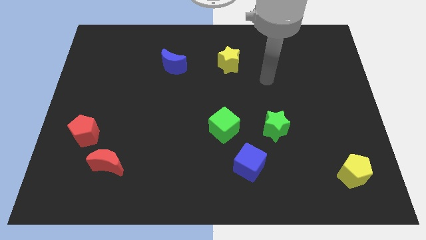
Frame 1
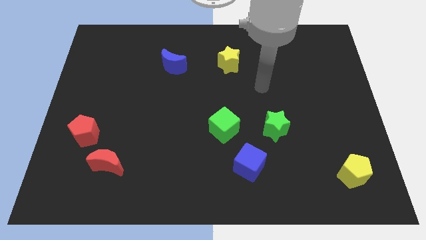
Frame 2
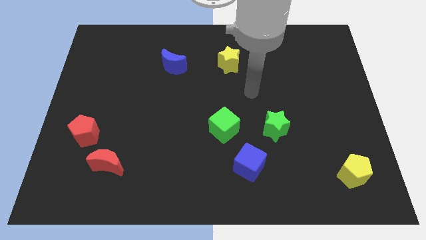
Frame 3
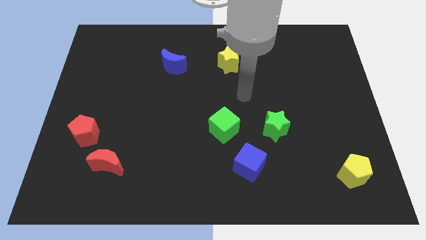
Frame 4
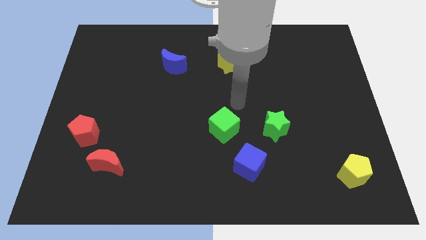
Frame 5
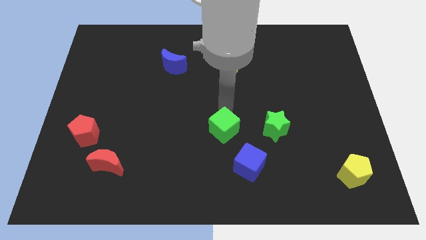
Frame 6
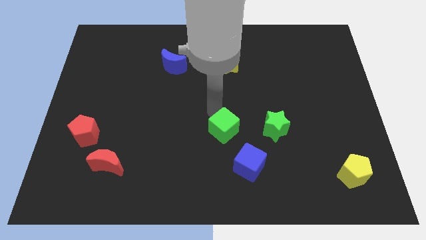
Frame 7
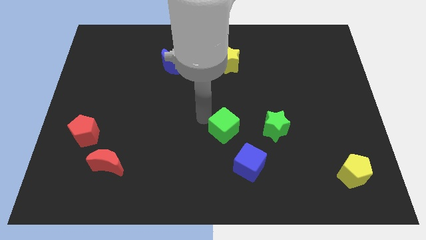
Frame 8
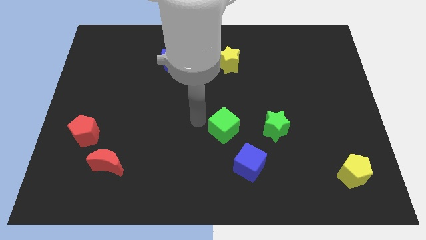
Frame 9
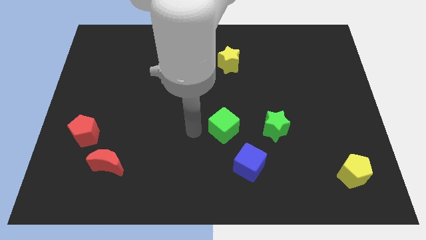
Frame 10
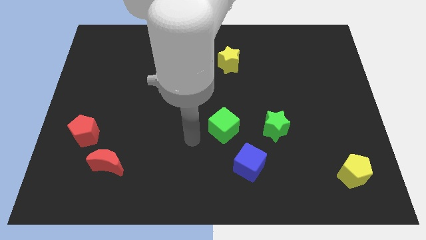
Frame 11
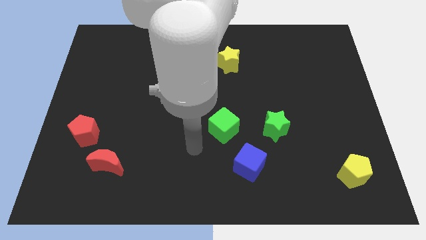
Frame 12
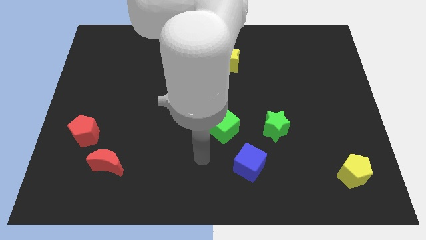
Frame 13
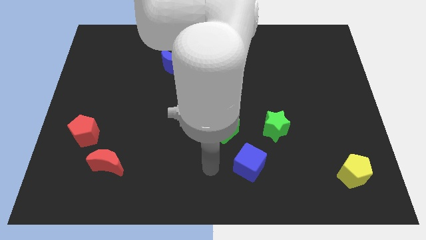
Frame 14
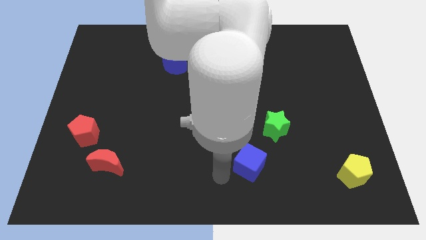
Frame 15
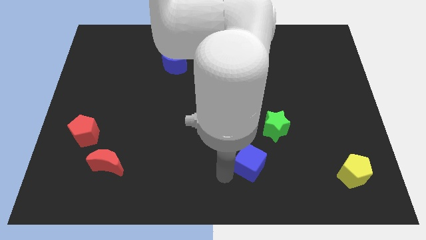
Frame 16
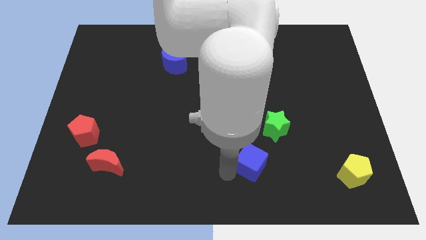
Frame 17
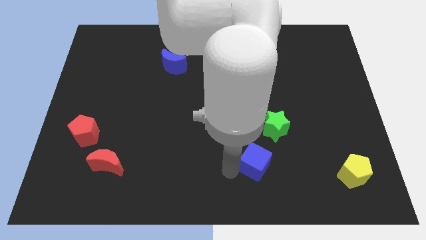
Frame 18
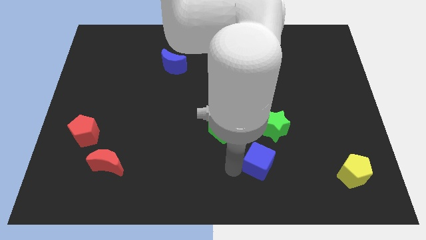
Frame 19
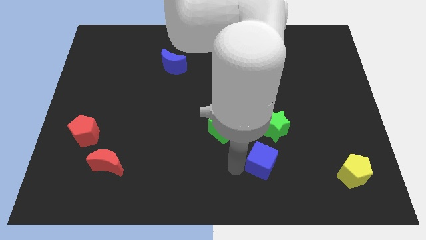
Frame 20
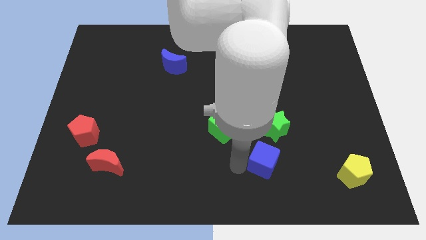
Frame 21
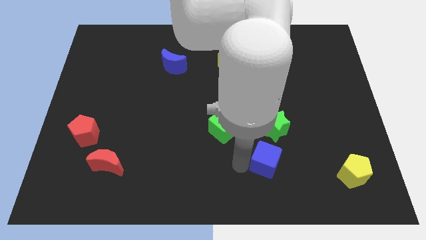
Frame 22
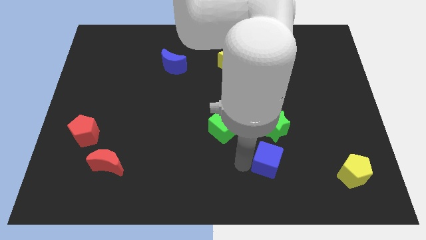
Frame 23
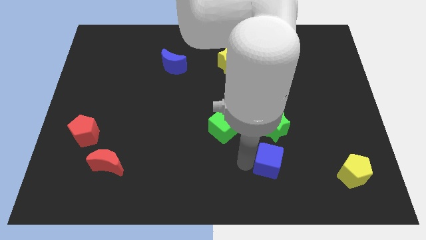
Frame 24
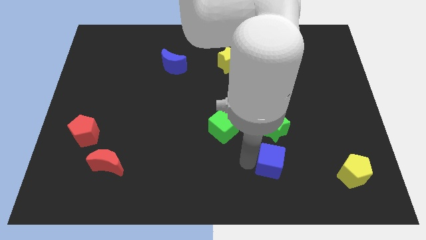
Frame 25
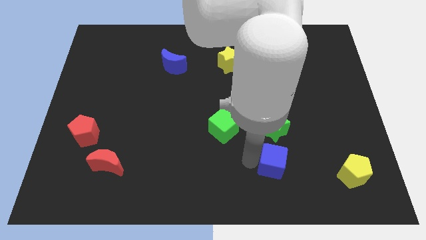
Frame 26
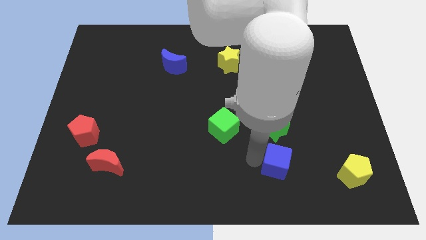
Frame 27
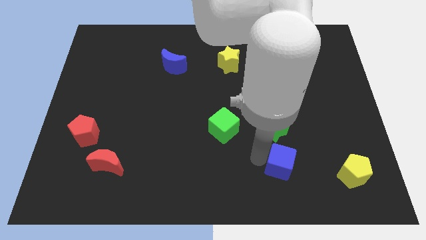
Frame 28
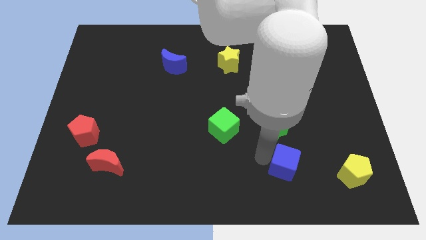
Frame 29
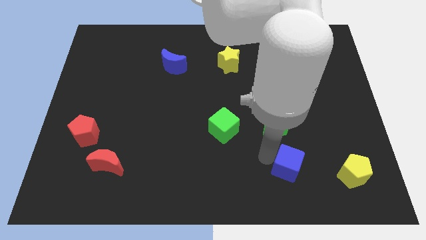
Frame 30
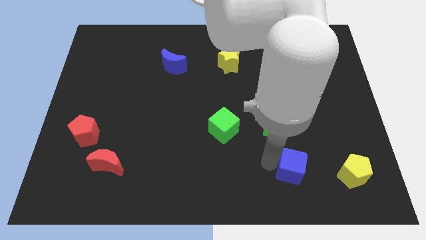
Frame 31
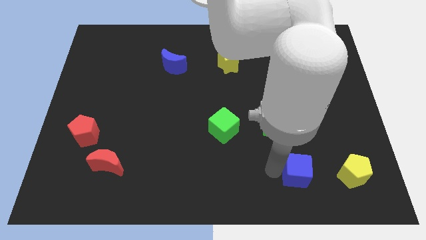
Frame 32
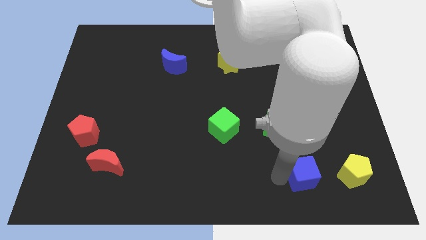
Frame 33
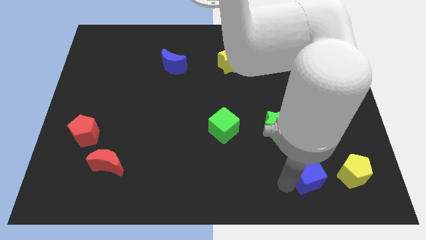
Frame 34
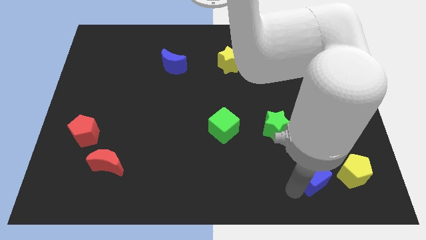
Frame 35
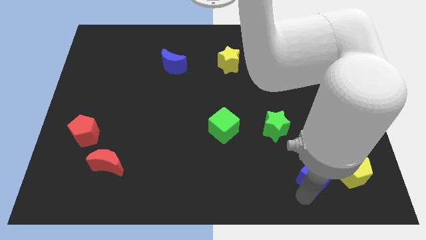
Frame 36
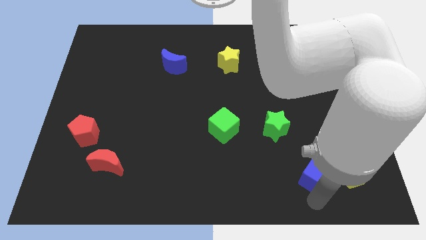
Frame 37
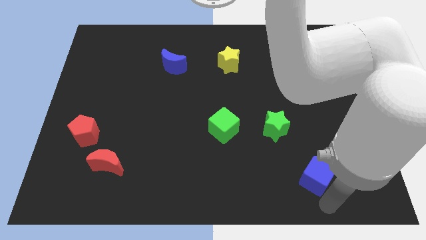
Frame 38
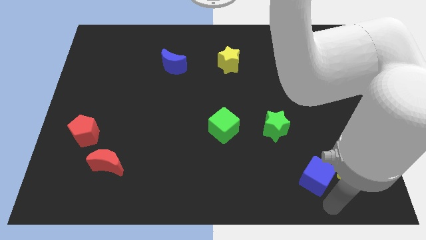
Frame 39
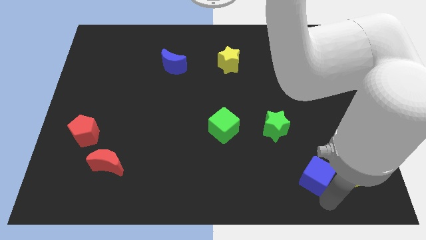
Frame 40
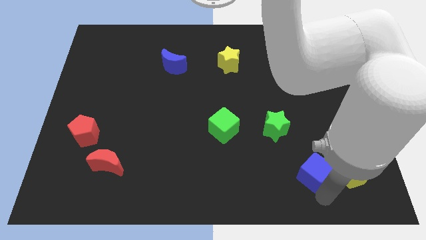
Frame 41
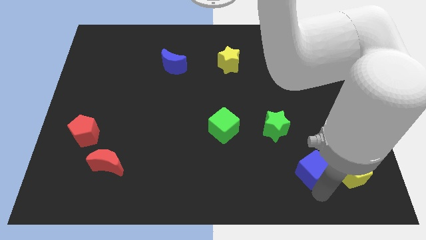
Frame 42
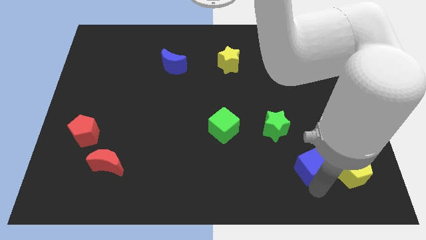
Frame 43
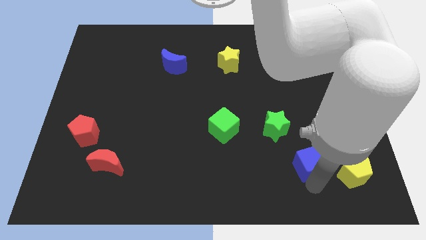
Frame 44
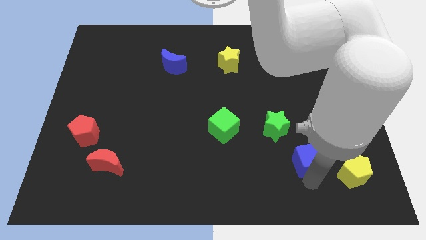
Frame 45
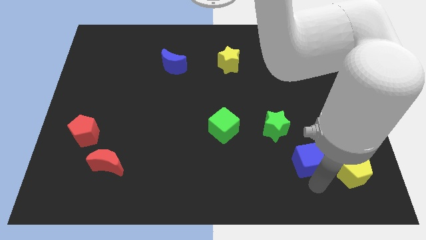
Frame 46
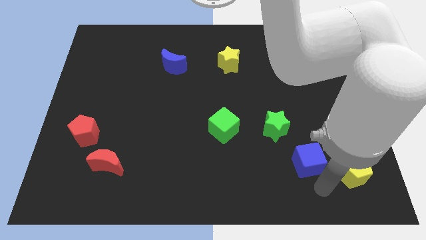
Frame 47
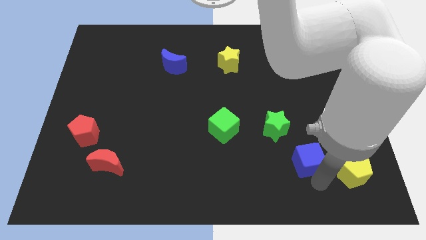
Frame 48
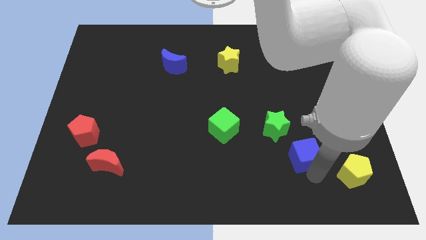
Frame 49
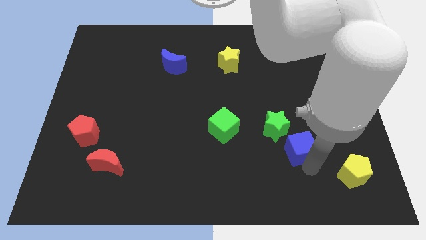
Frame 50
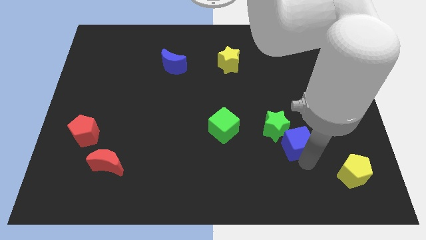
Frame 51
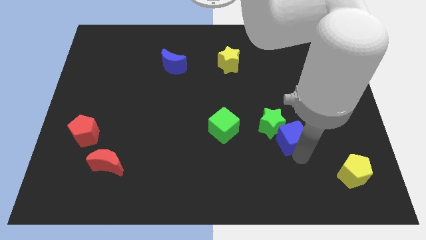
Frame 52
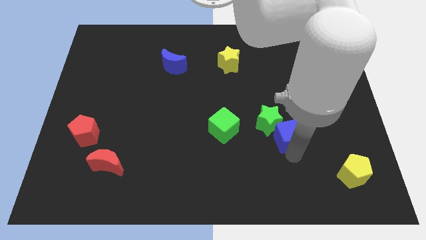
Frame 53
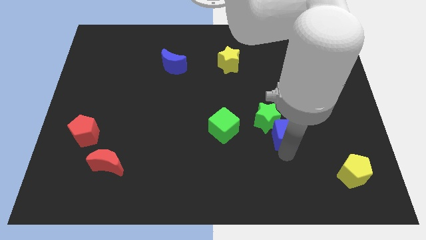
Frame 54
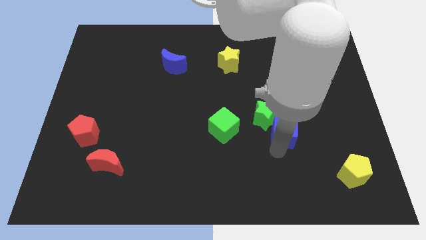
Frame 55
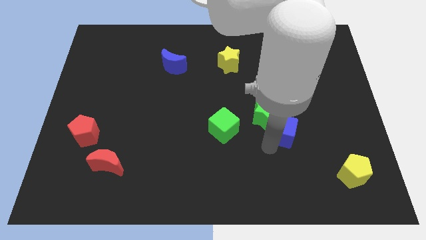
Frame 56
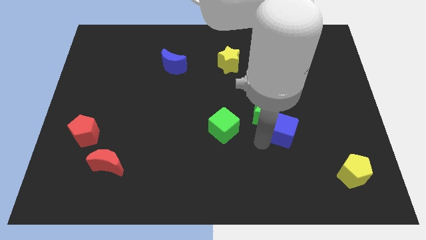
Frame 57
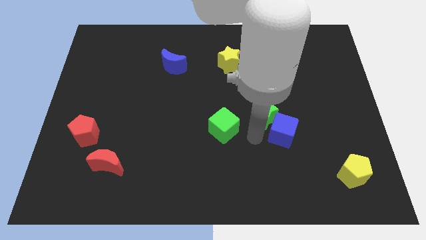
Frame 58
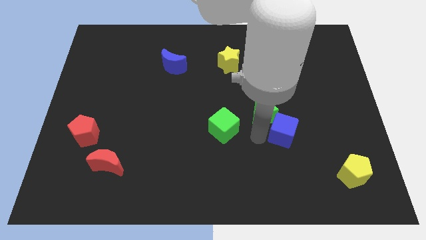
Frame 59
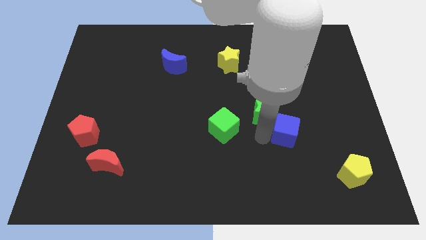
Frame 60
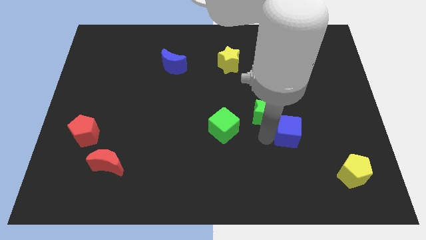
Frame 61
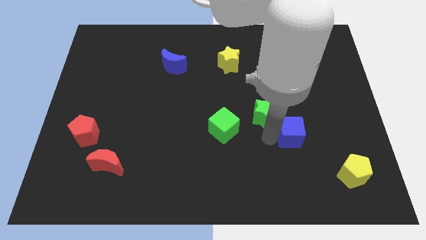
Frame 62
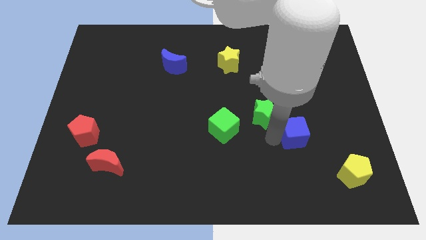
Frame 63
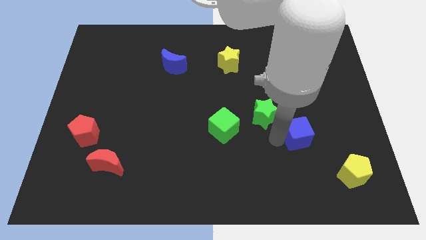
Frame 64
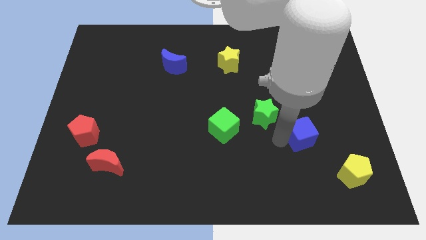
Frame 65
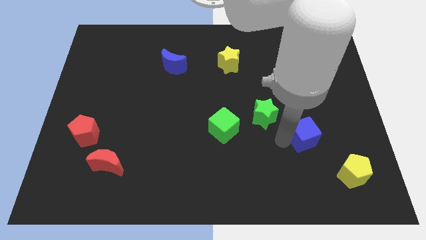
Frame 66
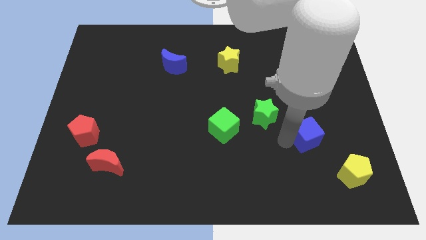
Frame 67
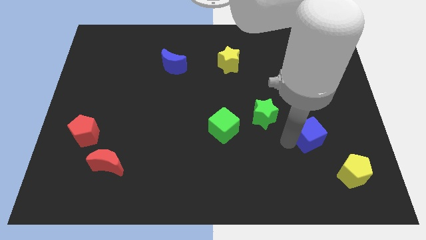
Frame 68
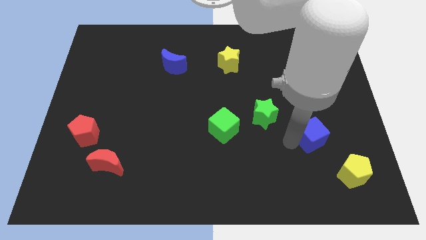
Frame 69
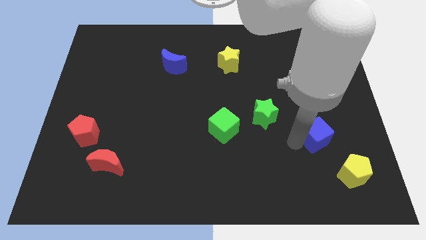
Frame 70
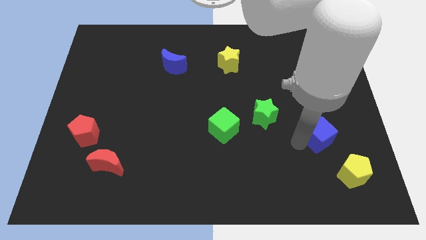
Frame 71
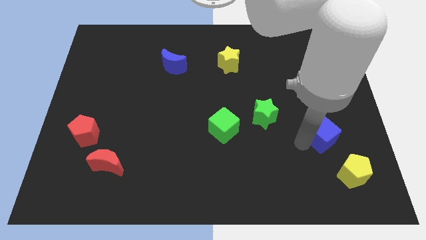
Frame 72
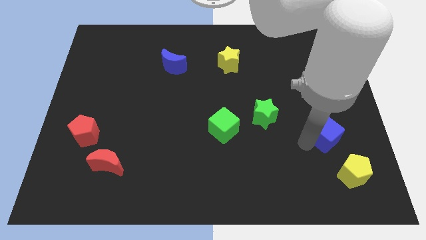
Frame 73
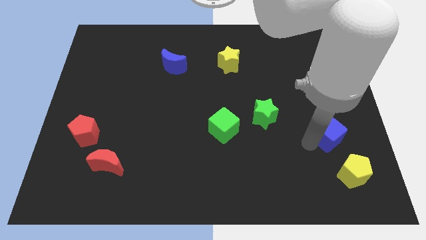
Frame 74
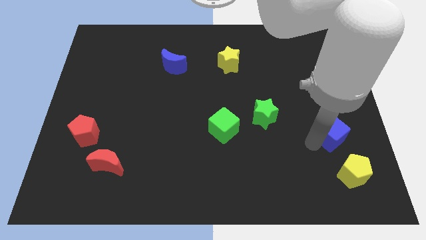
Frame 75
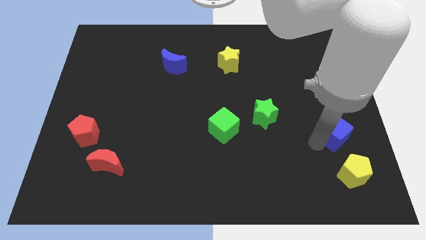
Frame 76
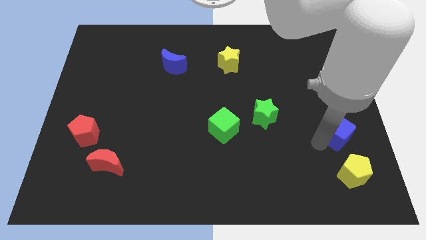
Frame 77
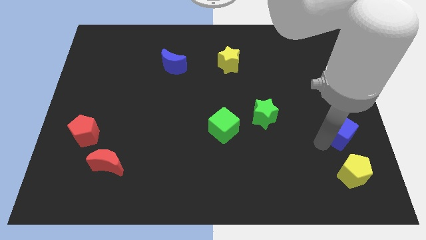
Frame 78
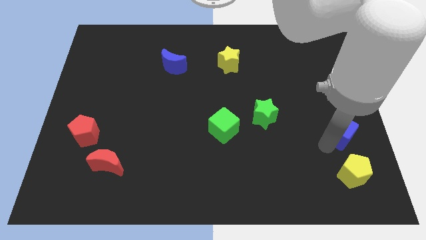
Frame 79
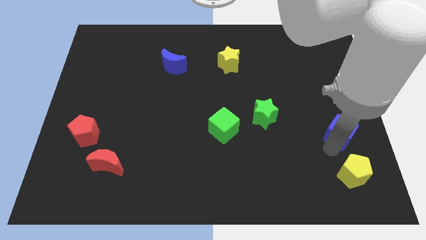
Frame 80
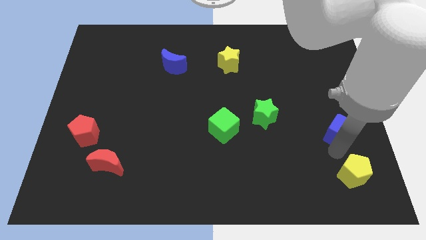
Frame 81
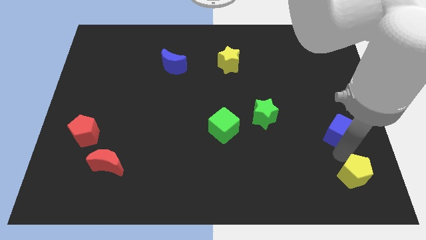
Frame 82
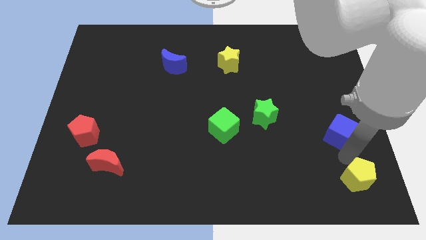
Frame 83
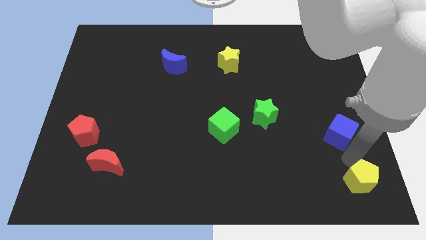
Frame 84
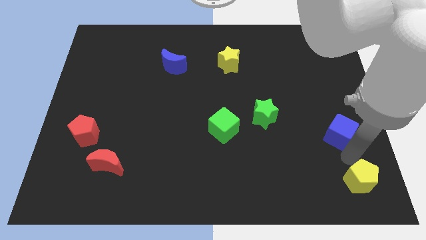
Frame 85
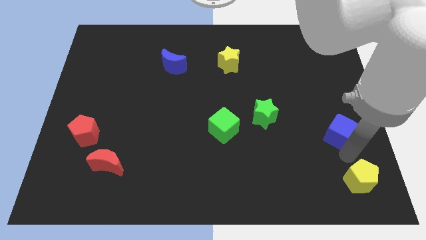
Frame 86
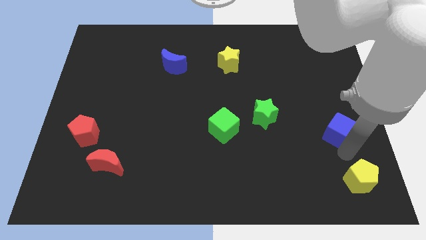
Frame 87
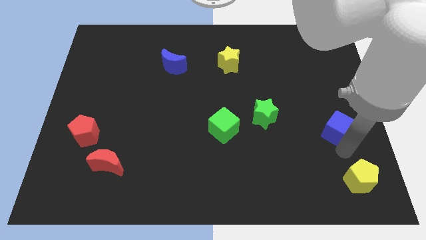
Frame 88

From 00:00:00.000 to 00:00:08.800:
push the blue cube to the center right
